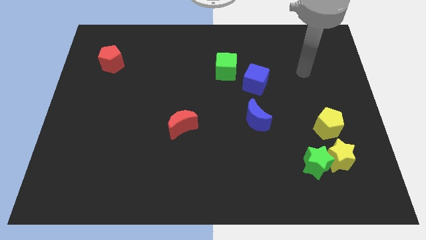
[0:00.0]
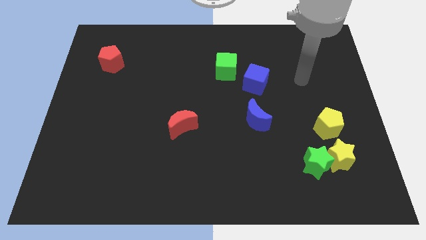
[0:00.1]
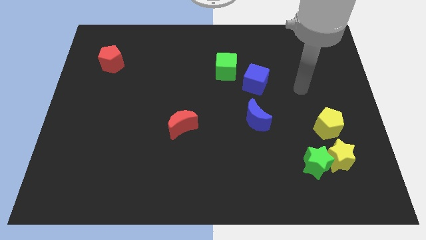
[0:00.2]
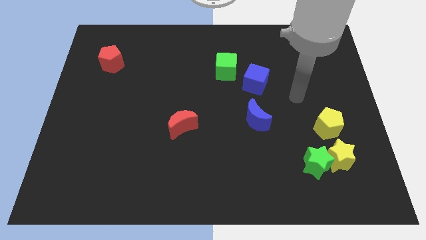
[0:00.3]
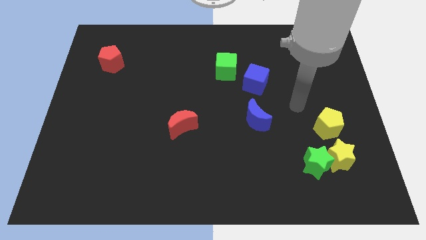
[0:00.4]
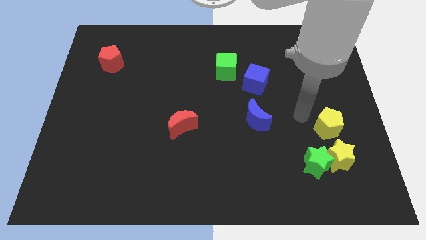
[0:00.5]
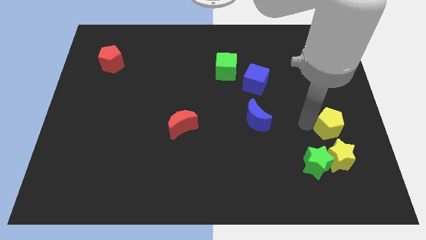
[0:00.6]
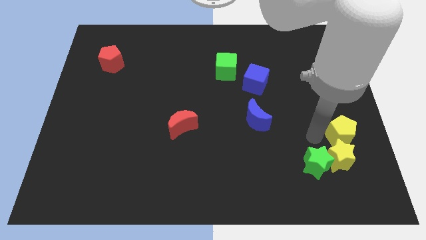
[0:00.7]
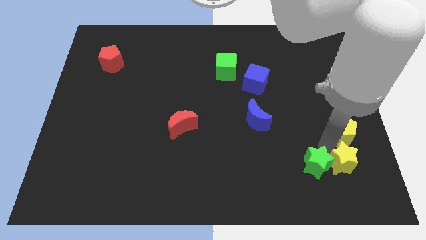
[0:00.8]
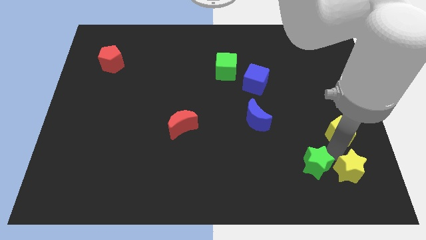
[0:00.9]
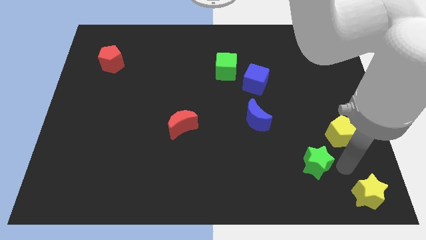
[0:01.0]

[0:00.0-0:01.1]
move the green star away from the yellow star

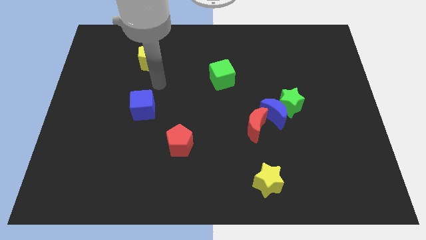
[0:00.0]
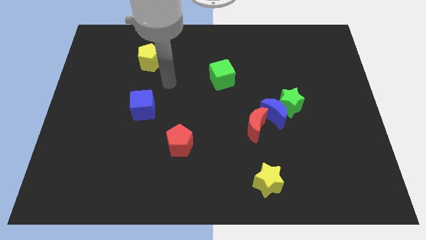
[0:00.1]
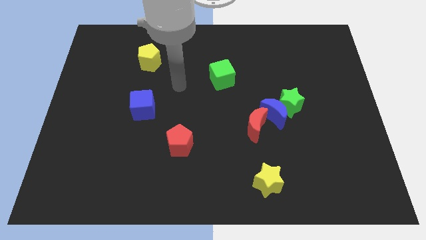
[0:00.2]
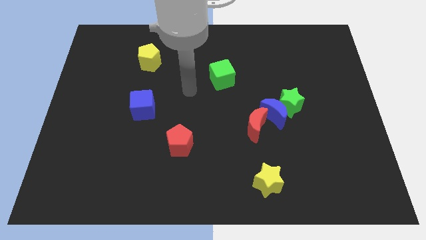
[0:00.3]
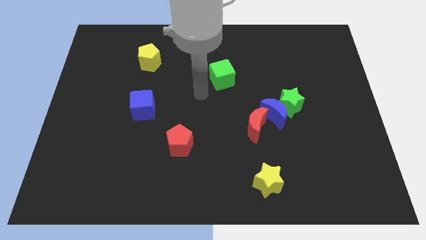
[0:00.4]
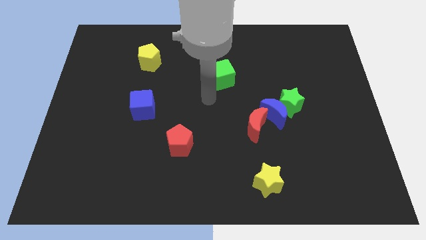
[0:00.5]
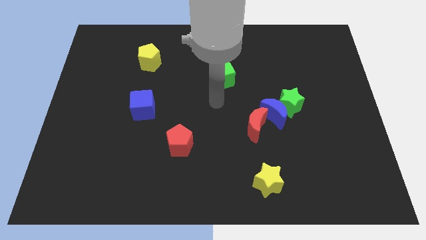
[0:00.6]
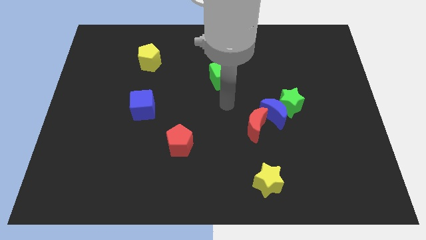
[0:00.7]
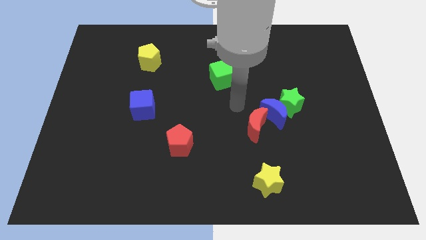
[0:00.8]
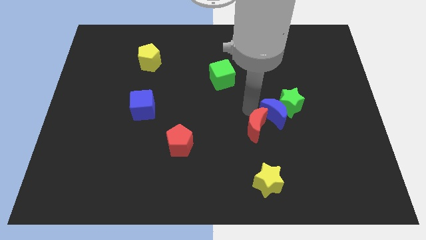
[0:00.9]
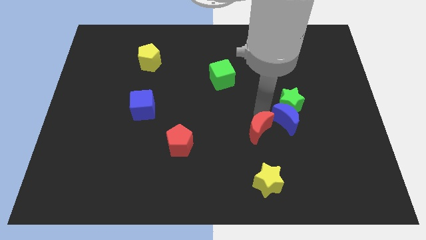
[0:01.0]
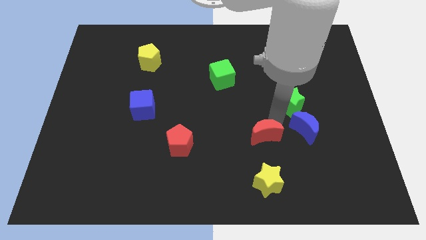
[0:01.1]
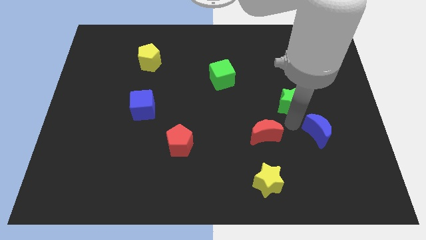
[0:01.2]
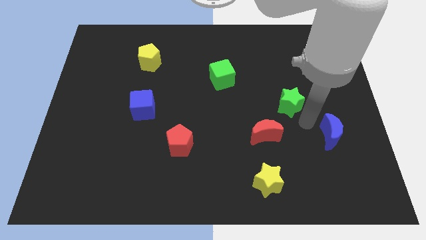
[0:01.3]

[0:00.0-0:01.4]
move the green star away from the blue moon

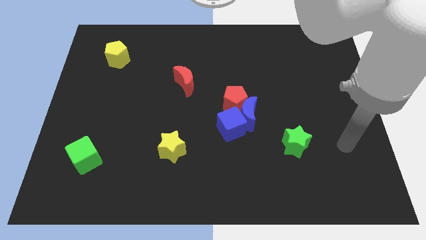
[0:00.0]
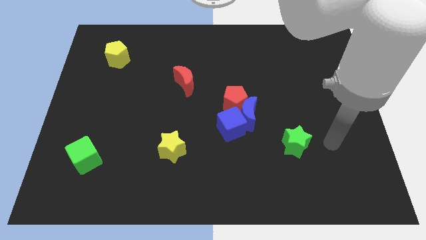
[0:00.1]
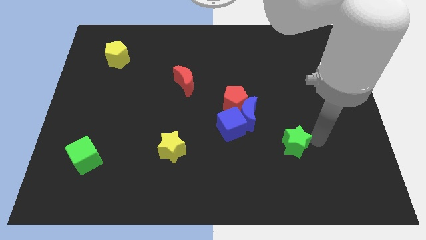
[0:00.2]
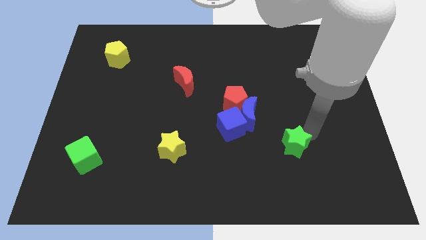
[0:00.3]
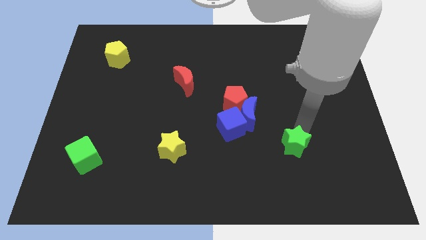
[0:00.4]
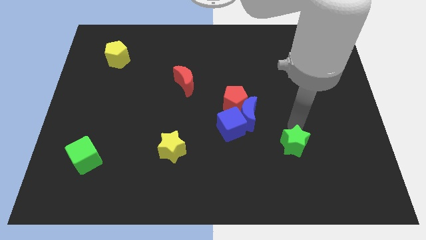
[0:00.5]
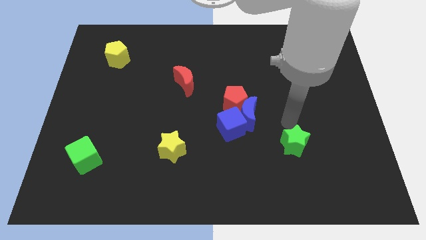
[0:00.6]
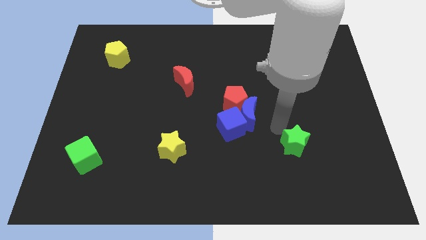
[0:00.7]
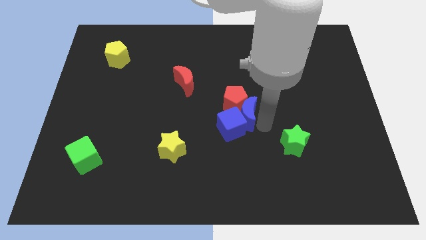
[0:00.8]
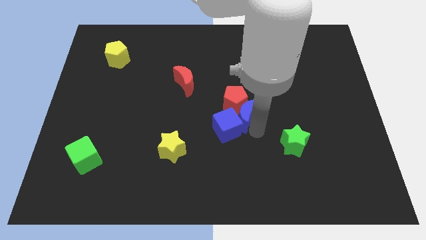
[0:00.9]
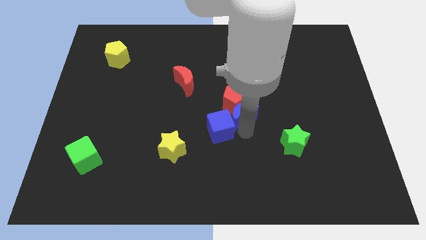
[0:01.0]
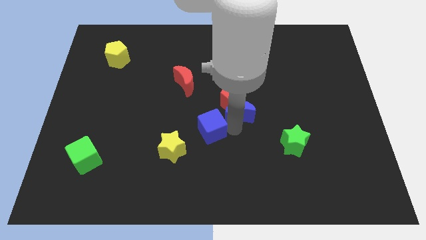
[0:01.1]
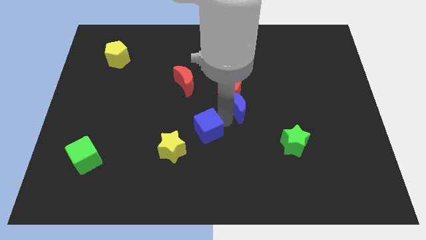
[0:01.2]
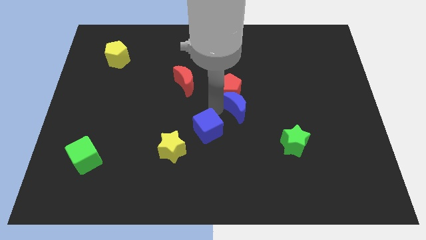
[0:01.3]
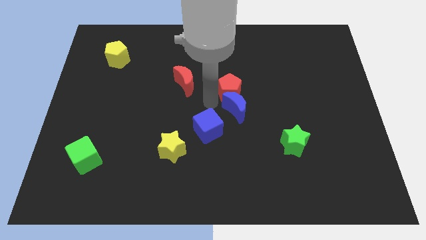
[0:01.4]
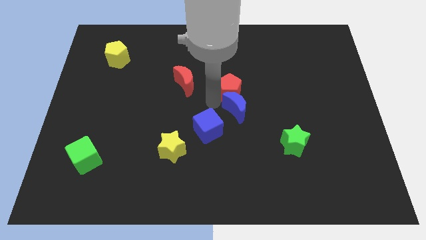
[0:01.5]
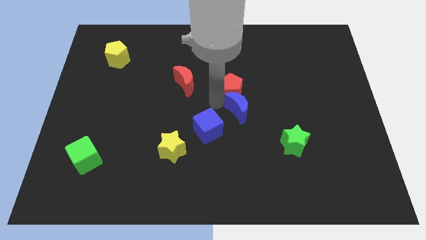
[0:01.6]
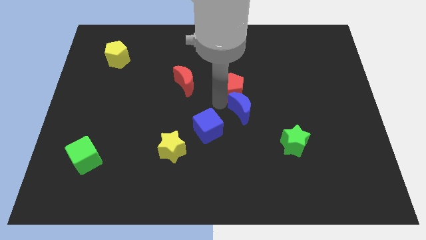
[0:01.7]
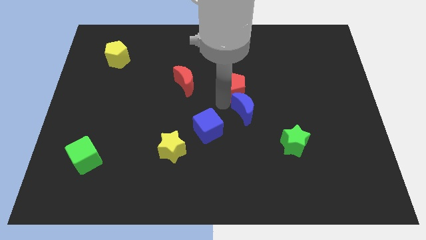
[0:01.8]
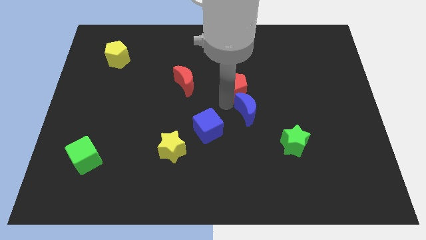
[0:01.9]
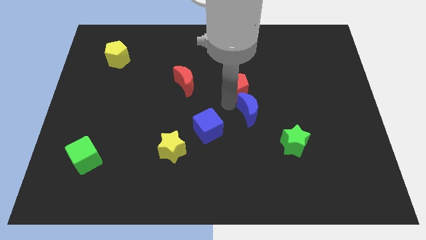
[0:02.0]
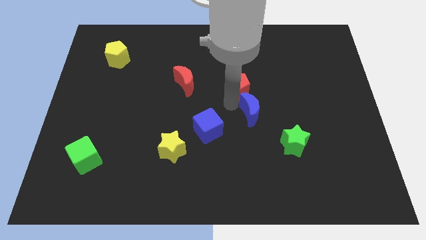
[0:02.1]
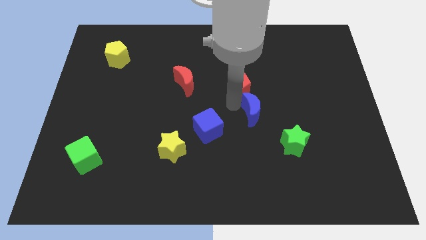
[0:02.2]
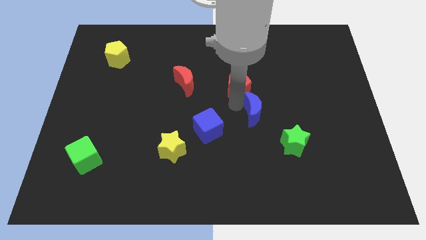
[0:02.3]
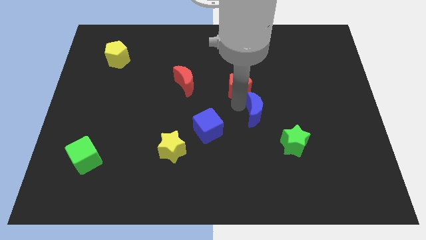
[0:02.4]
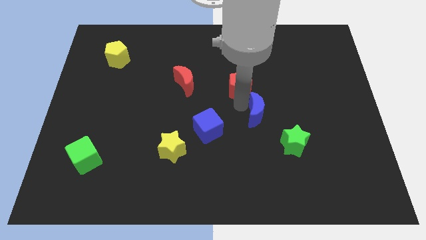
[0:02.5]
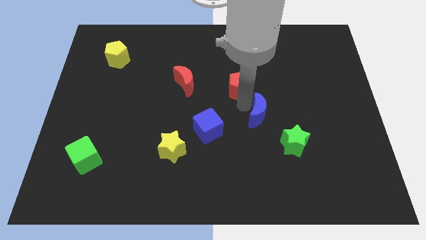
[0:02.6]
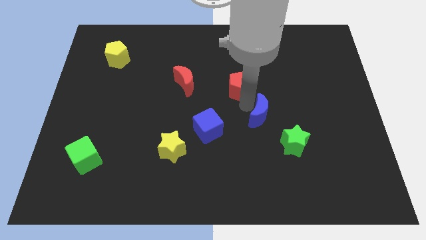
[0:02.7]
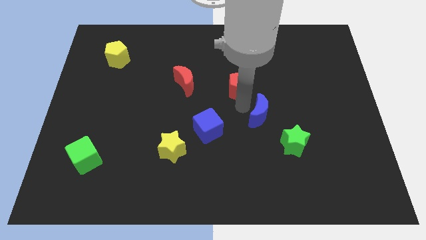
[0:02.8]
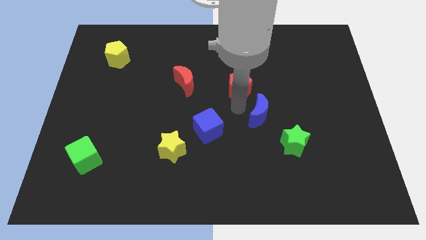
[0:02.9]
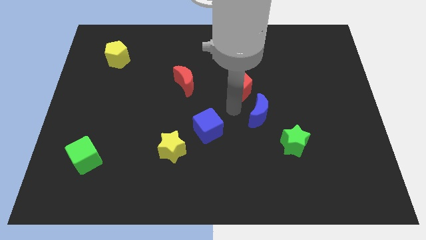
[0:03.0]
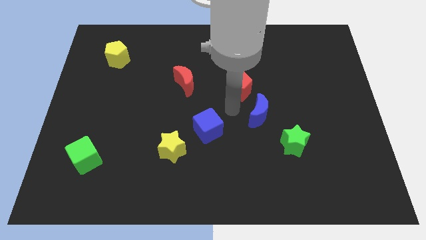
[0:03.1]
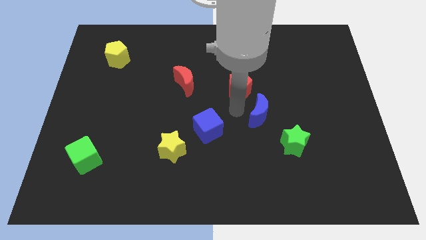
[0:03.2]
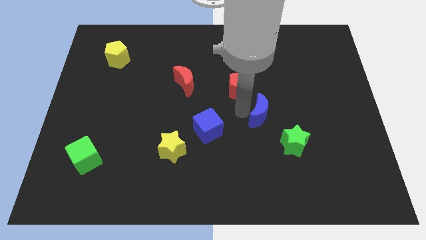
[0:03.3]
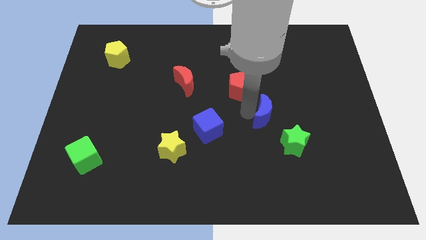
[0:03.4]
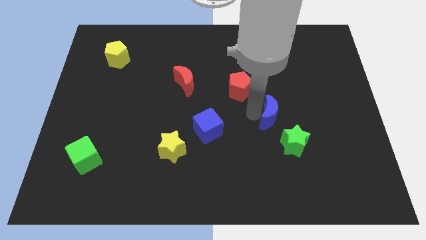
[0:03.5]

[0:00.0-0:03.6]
separate the blue moon from the red pentagon and blue cube

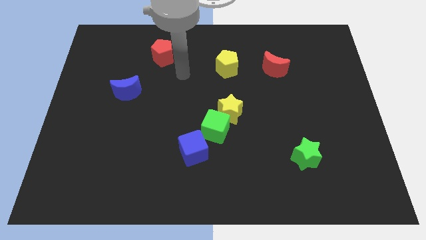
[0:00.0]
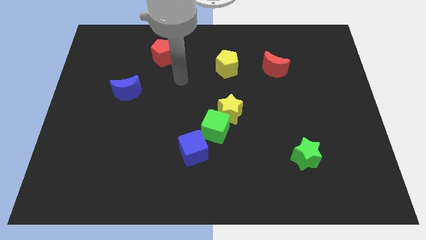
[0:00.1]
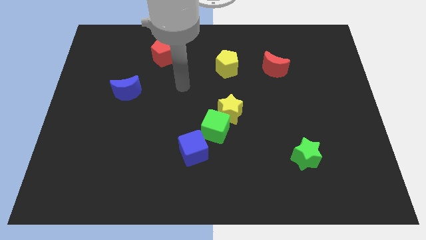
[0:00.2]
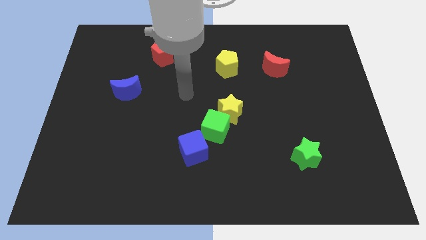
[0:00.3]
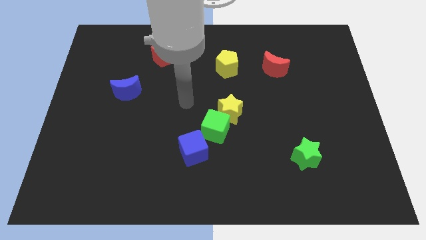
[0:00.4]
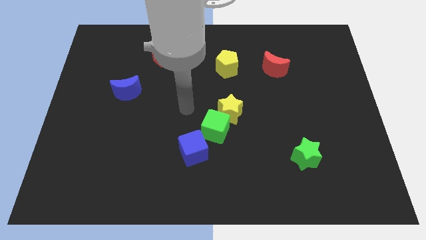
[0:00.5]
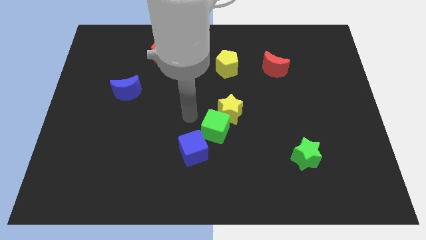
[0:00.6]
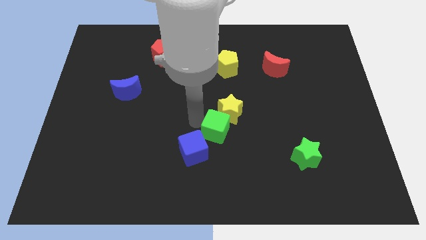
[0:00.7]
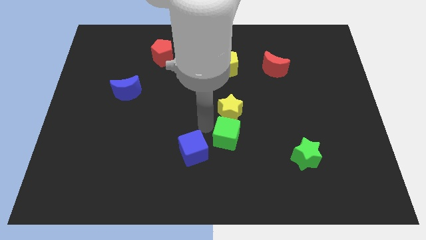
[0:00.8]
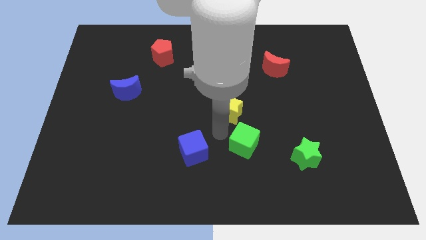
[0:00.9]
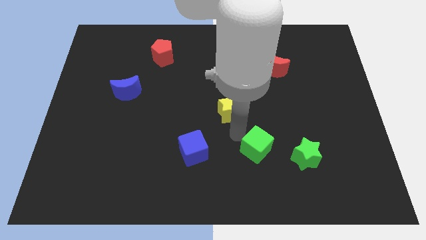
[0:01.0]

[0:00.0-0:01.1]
pull the yellow star apart from the green cube

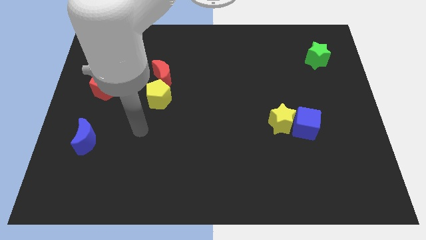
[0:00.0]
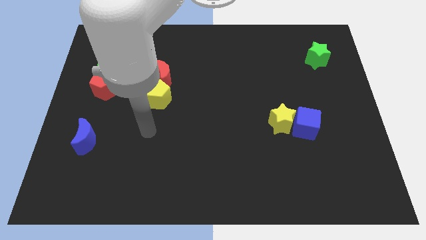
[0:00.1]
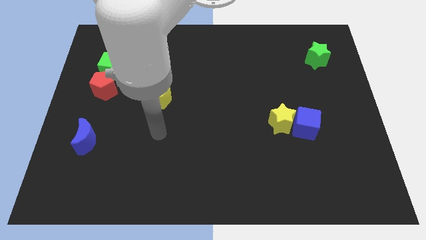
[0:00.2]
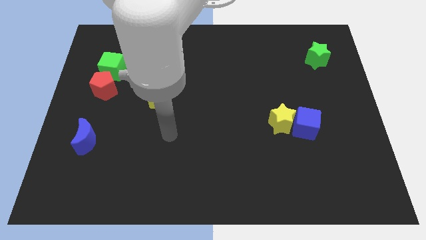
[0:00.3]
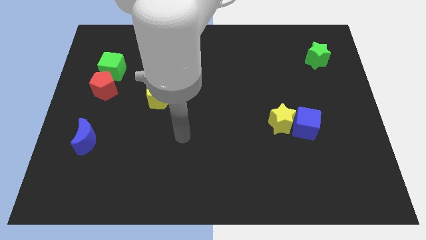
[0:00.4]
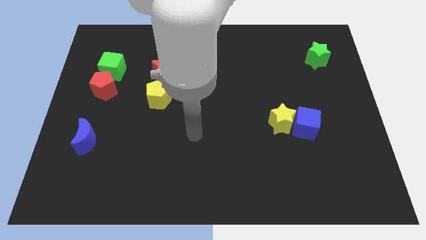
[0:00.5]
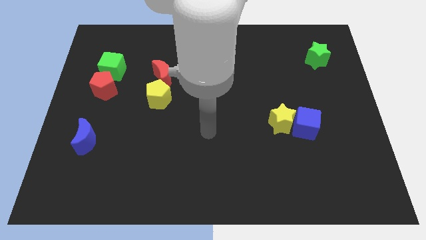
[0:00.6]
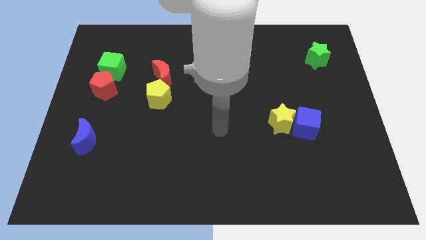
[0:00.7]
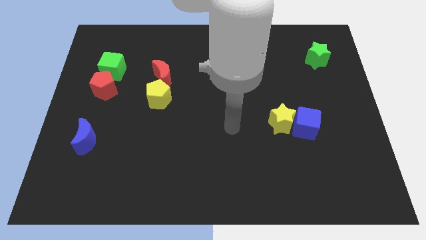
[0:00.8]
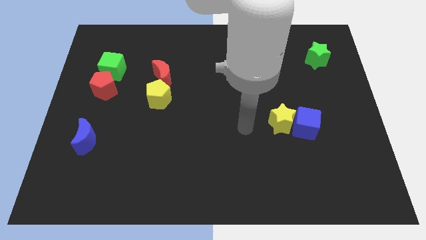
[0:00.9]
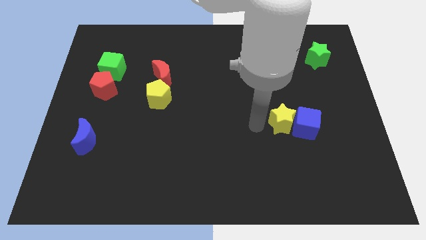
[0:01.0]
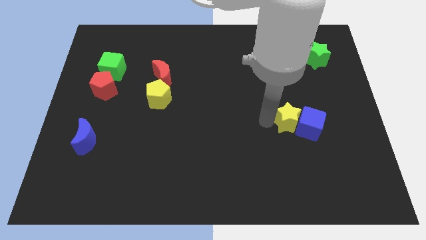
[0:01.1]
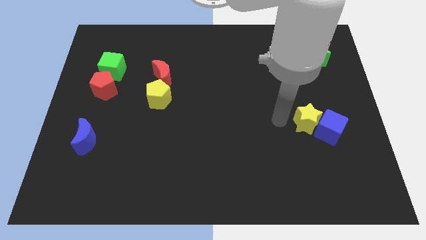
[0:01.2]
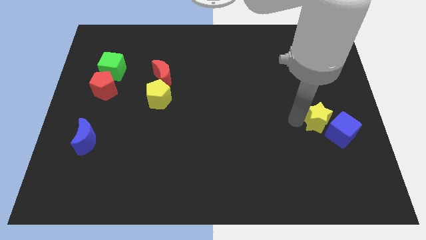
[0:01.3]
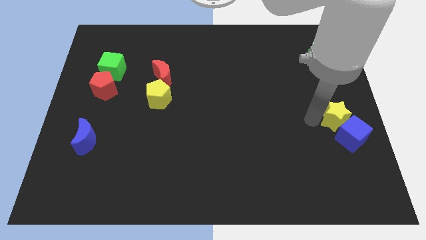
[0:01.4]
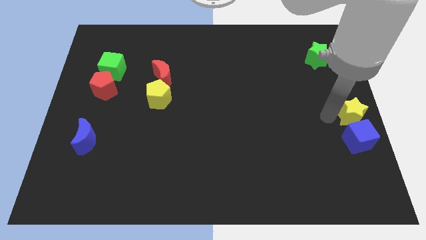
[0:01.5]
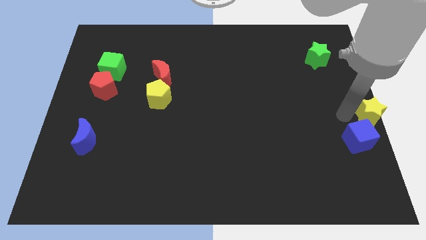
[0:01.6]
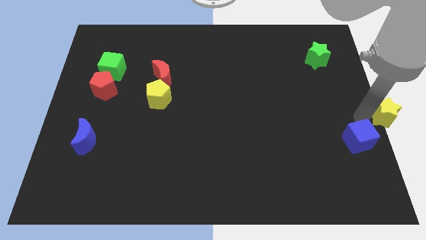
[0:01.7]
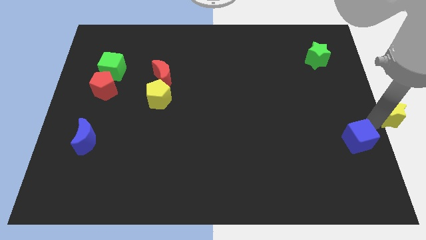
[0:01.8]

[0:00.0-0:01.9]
move the blue cube away from the yellow star
